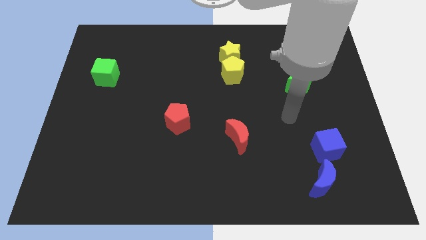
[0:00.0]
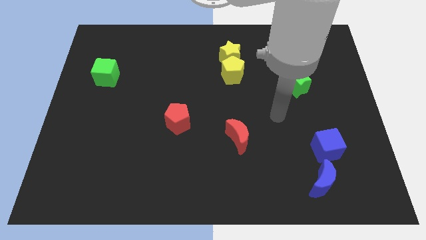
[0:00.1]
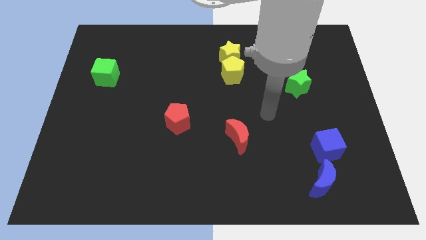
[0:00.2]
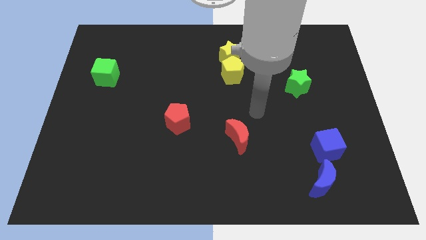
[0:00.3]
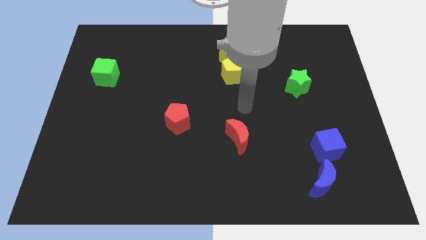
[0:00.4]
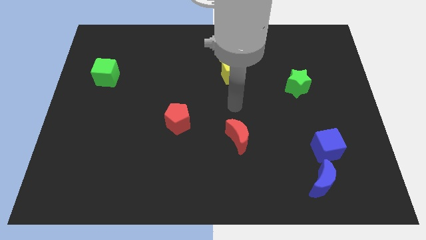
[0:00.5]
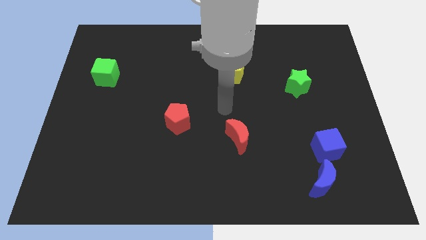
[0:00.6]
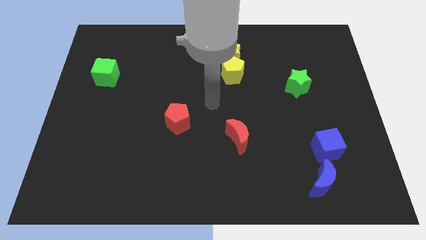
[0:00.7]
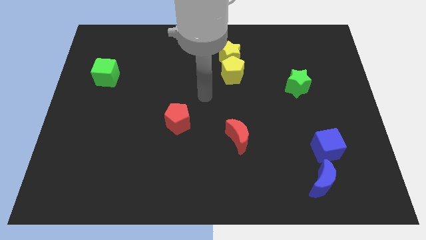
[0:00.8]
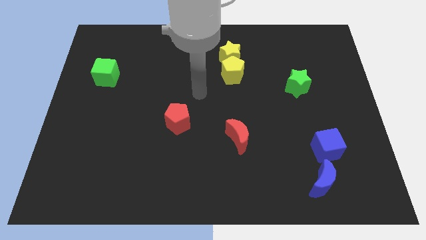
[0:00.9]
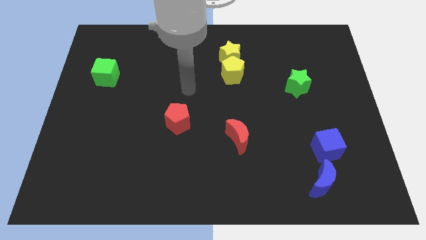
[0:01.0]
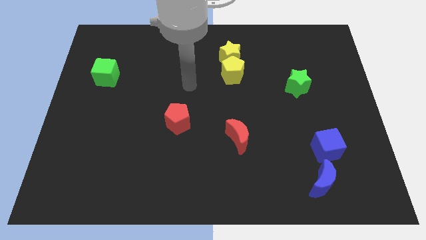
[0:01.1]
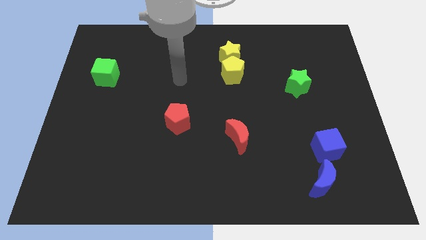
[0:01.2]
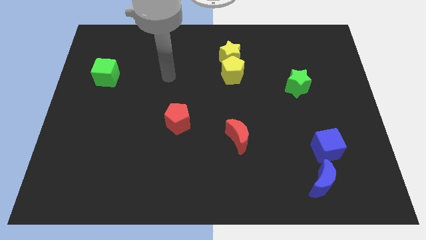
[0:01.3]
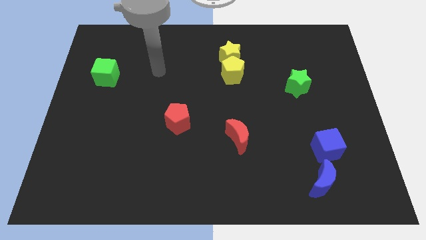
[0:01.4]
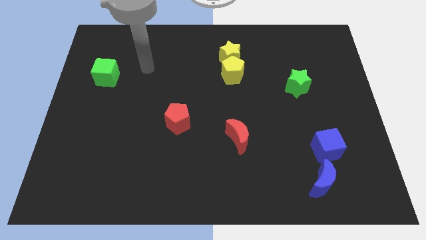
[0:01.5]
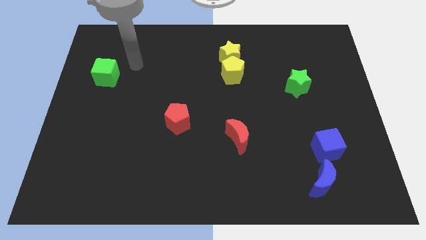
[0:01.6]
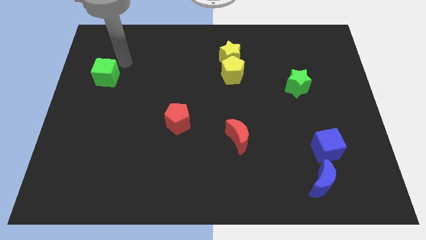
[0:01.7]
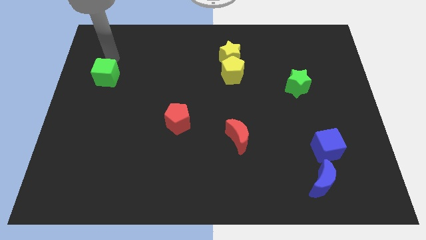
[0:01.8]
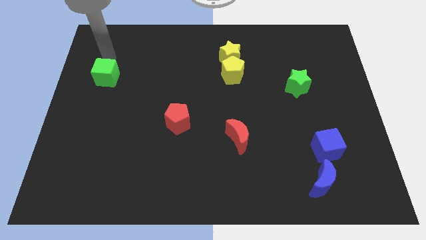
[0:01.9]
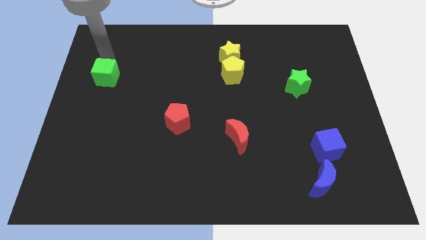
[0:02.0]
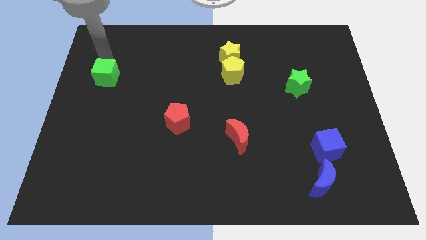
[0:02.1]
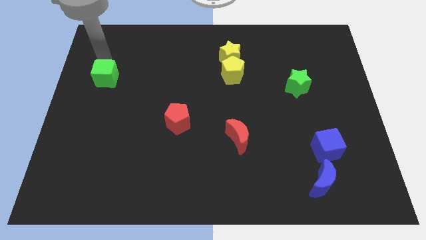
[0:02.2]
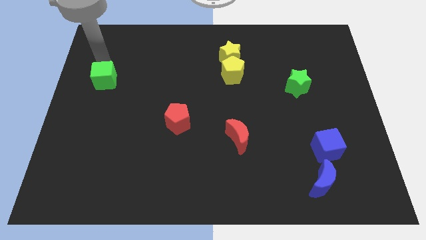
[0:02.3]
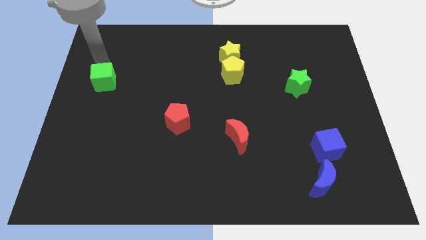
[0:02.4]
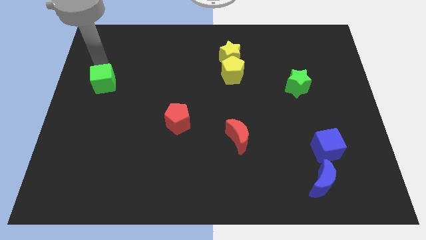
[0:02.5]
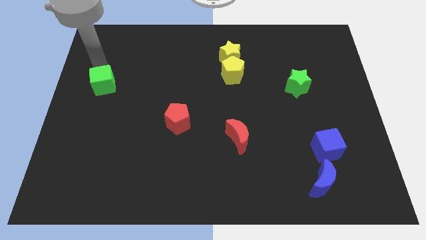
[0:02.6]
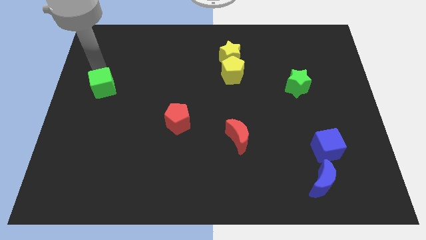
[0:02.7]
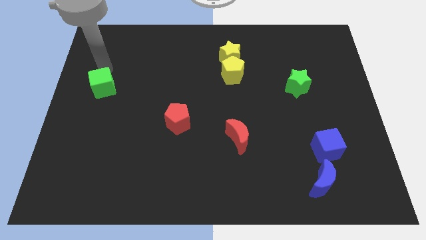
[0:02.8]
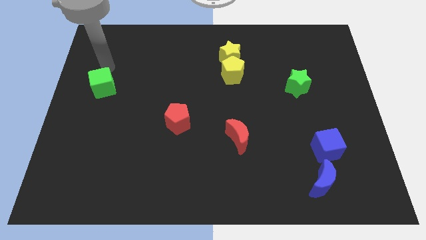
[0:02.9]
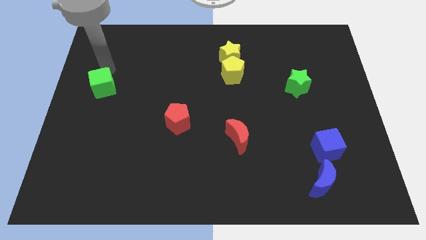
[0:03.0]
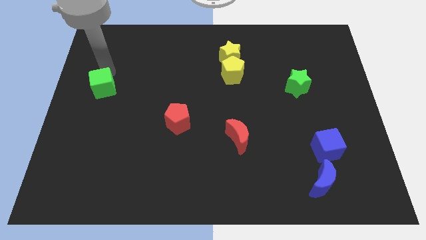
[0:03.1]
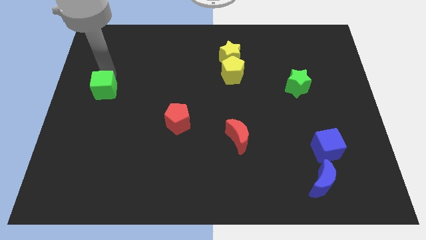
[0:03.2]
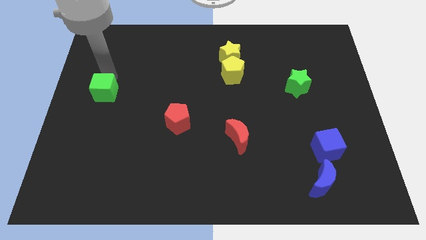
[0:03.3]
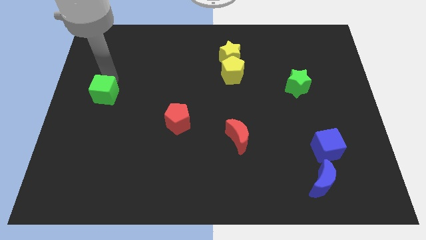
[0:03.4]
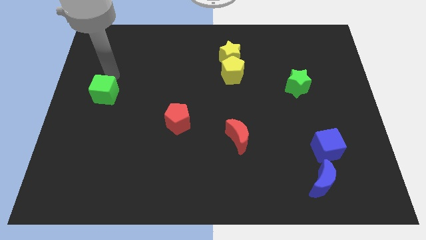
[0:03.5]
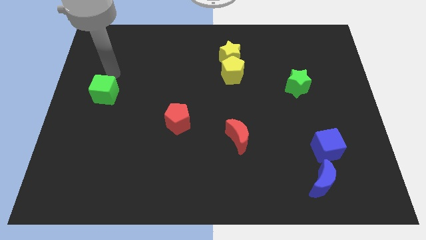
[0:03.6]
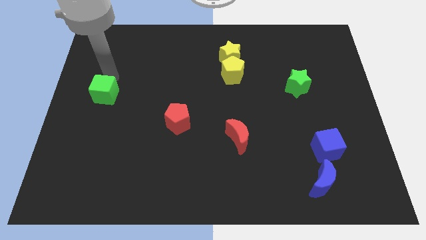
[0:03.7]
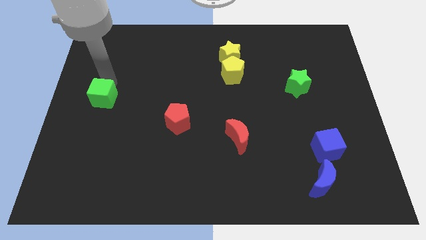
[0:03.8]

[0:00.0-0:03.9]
move the green cube downwards a little

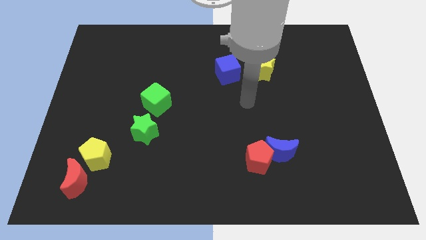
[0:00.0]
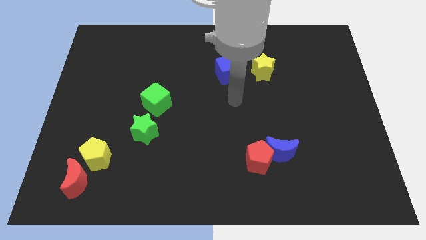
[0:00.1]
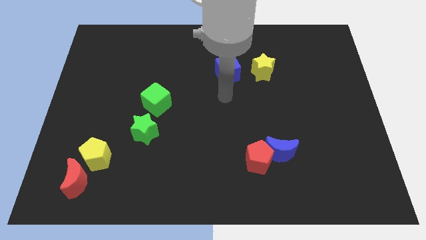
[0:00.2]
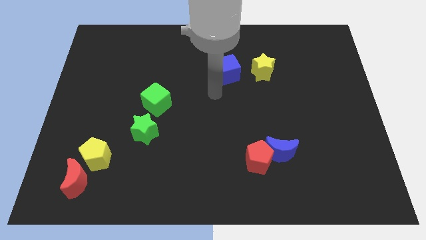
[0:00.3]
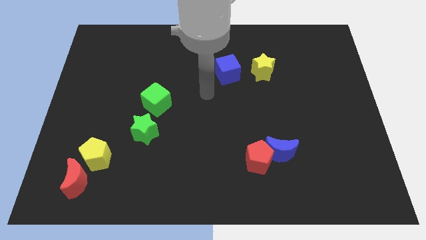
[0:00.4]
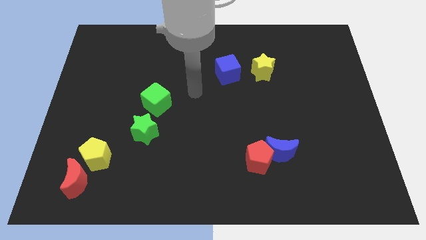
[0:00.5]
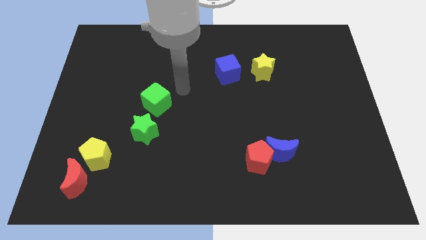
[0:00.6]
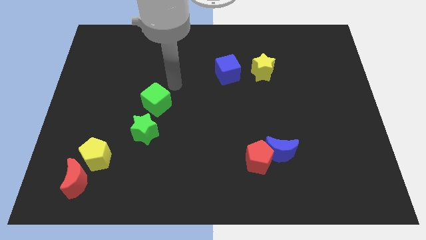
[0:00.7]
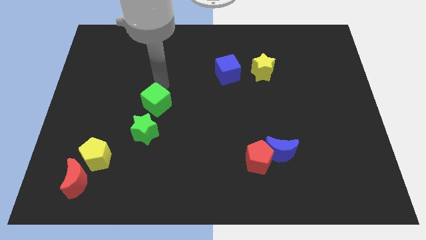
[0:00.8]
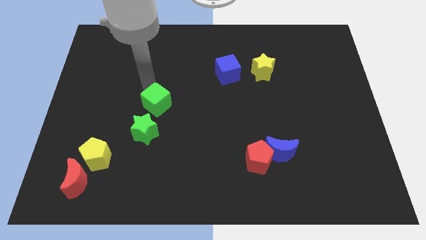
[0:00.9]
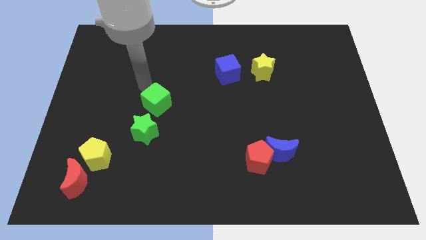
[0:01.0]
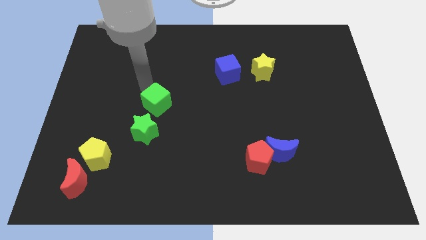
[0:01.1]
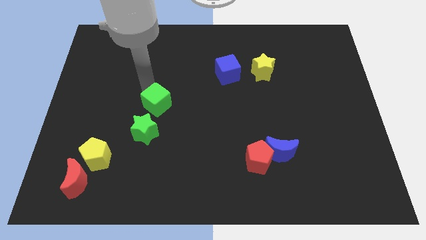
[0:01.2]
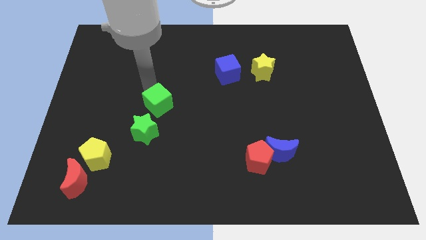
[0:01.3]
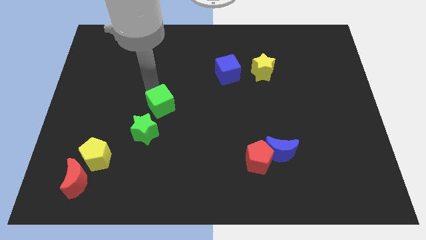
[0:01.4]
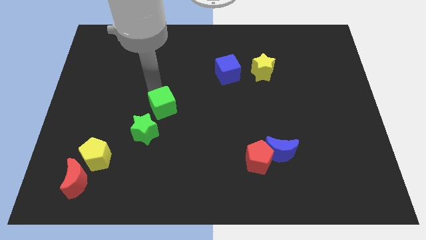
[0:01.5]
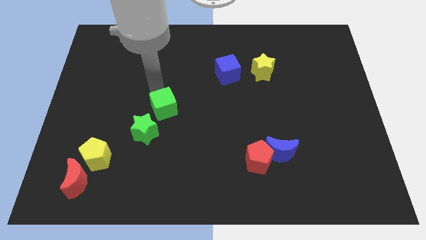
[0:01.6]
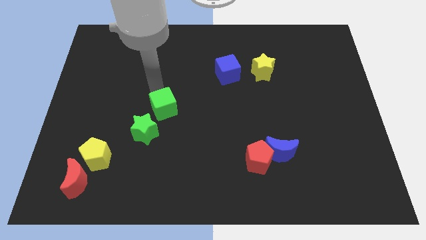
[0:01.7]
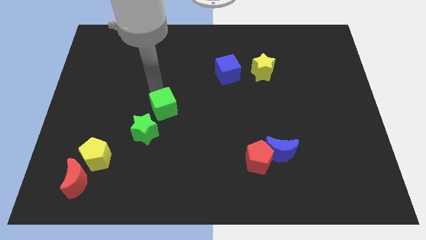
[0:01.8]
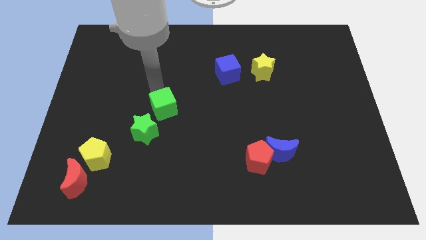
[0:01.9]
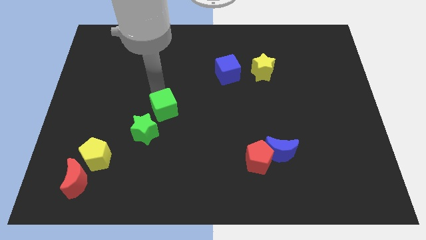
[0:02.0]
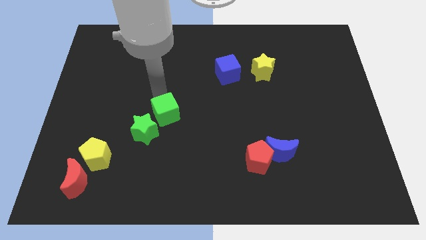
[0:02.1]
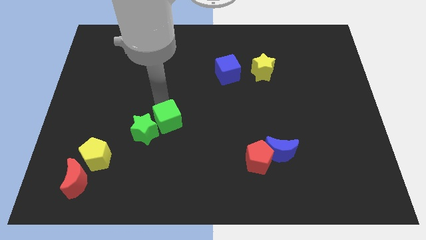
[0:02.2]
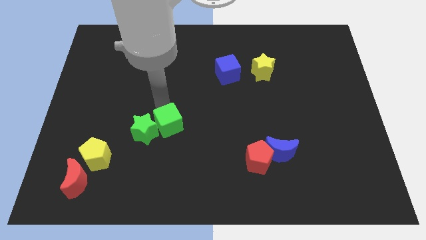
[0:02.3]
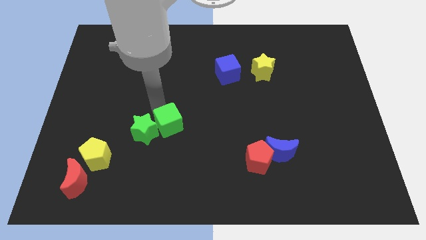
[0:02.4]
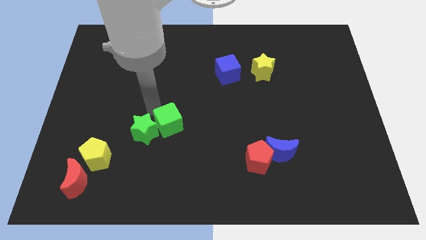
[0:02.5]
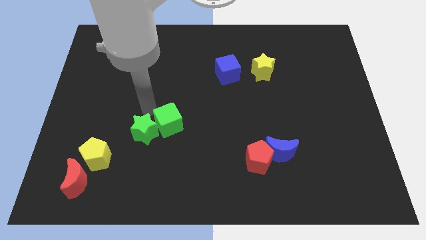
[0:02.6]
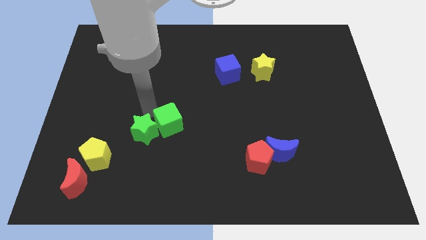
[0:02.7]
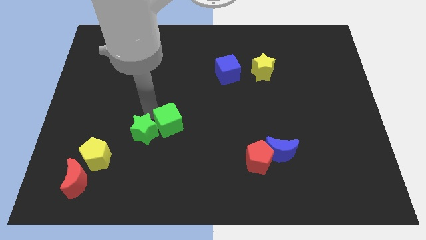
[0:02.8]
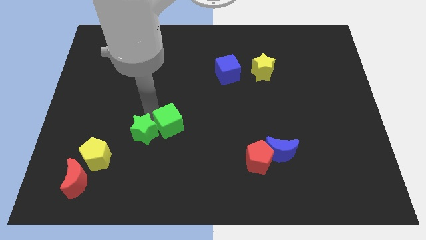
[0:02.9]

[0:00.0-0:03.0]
slightly push the green cube diagonally down and right

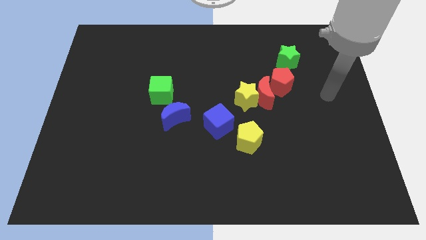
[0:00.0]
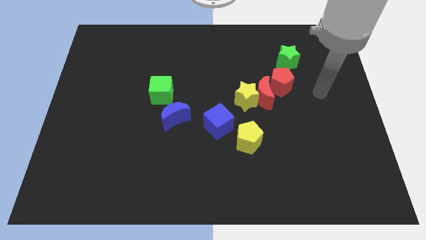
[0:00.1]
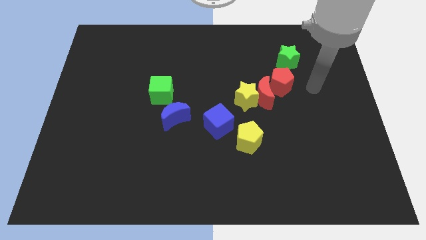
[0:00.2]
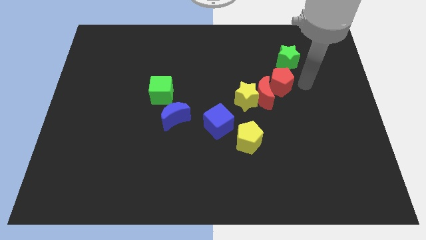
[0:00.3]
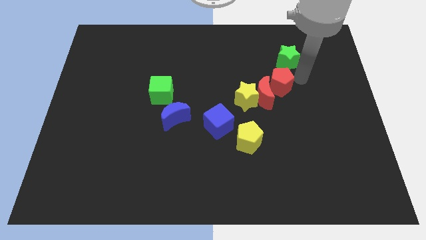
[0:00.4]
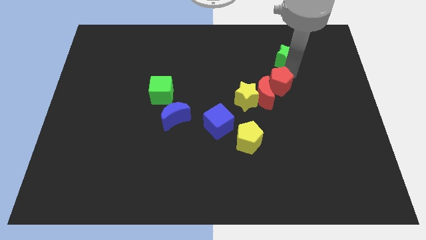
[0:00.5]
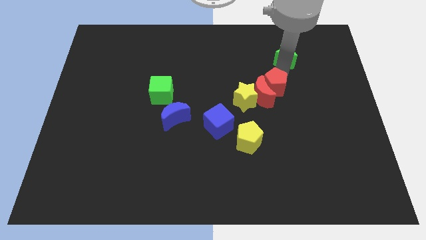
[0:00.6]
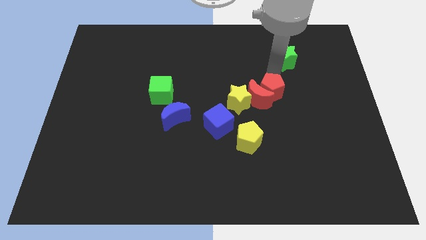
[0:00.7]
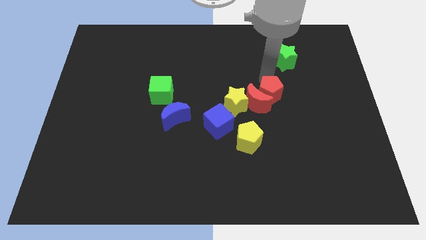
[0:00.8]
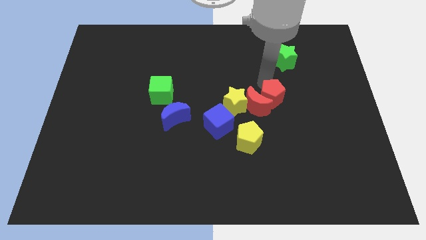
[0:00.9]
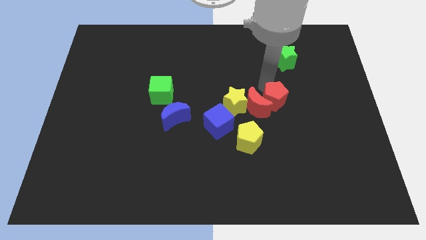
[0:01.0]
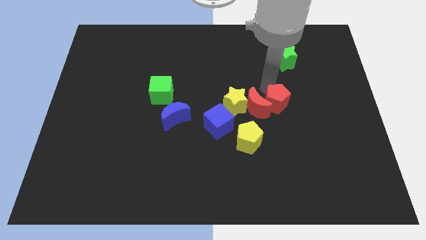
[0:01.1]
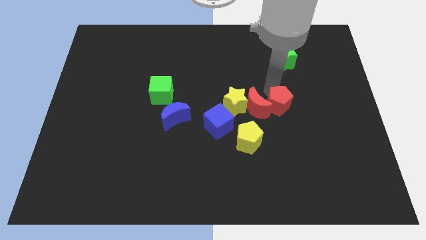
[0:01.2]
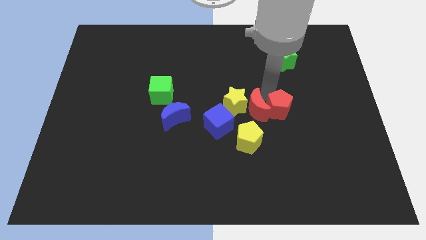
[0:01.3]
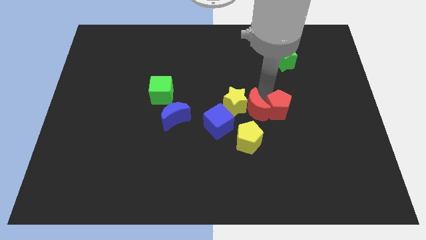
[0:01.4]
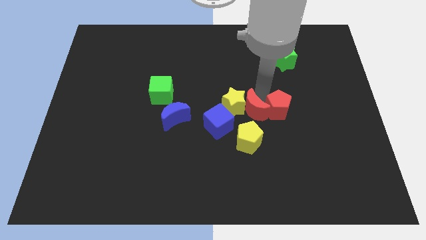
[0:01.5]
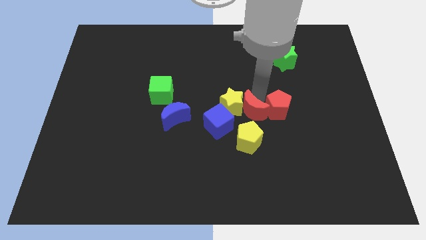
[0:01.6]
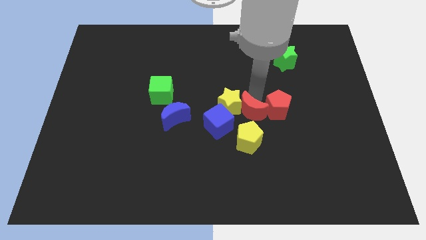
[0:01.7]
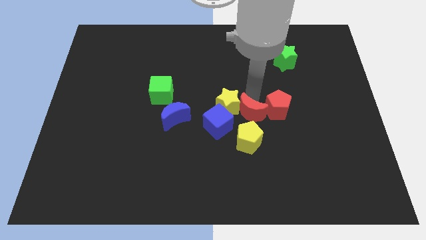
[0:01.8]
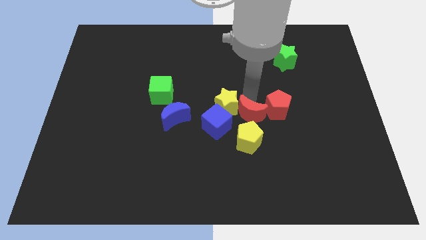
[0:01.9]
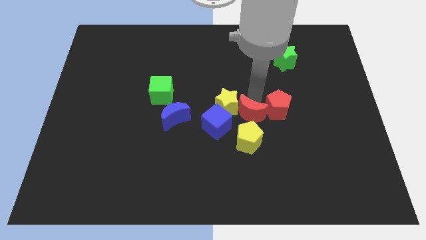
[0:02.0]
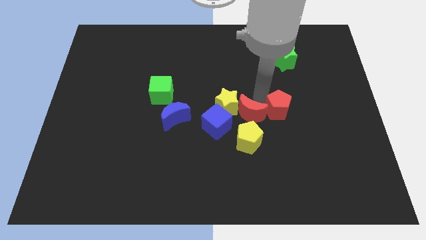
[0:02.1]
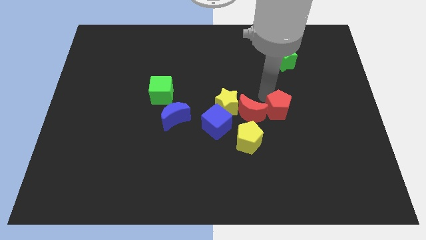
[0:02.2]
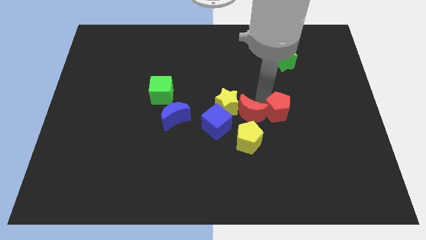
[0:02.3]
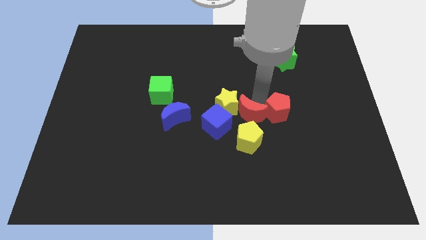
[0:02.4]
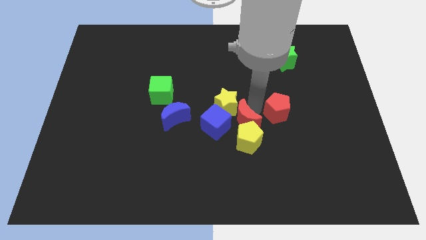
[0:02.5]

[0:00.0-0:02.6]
slightly move the red moon down and then to the left
